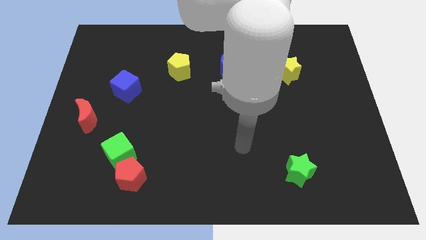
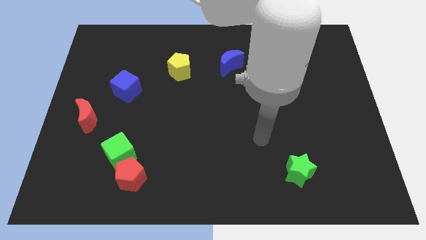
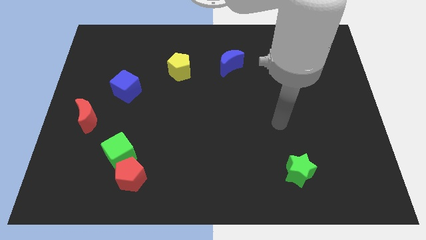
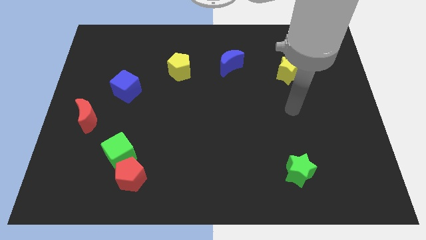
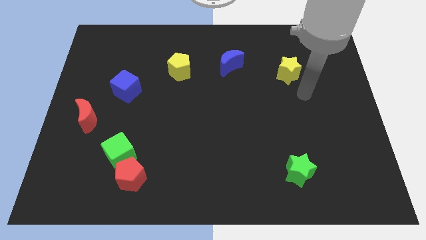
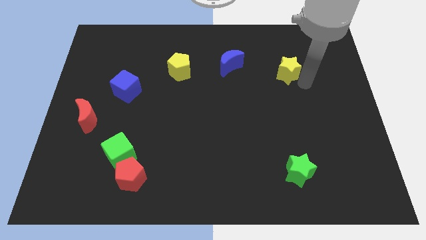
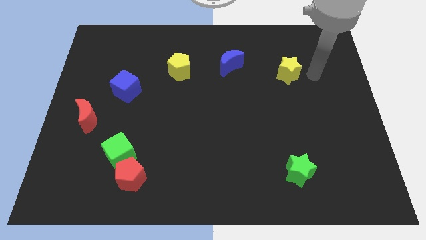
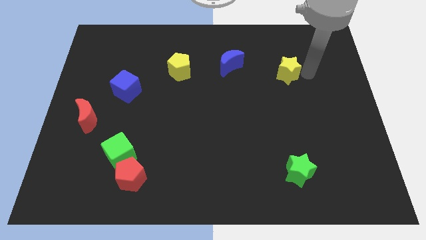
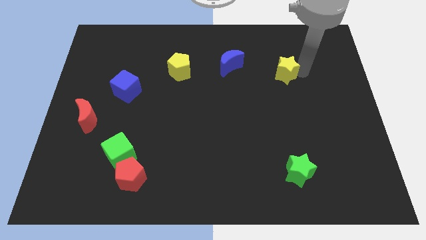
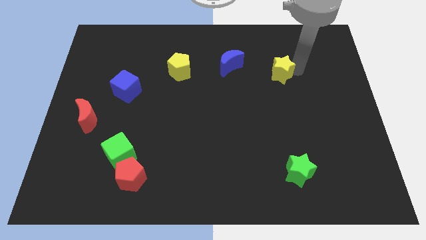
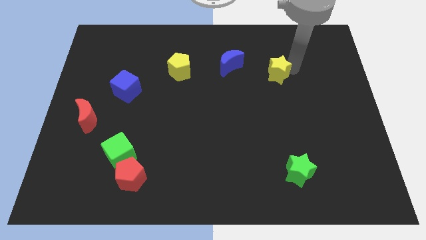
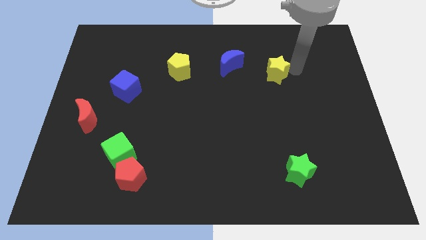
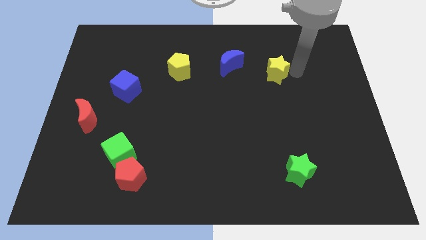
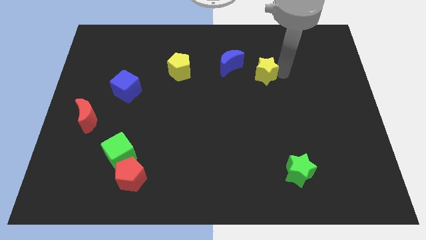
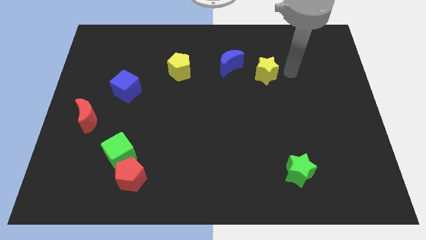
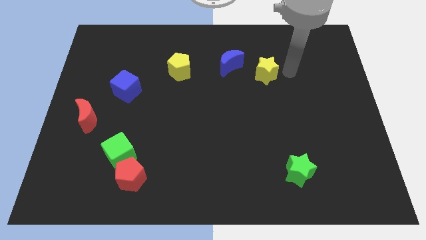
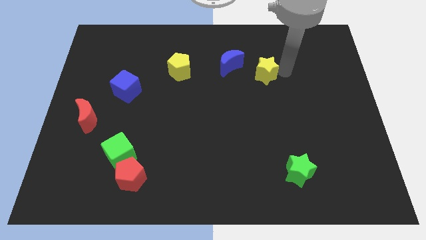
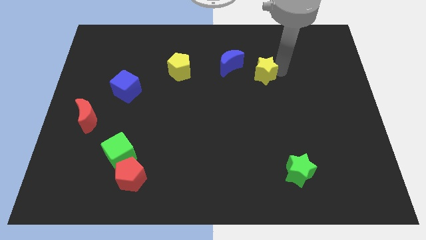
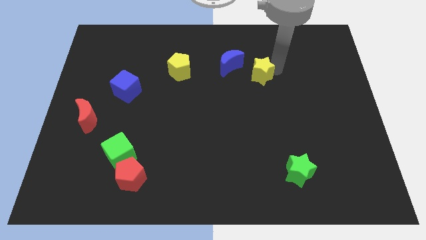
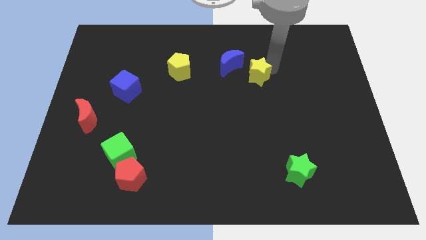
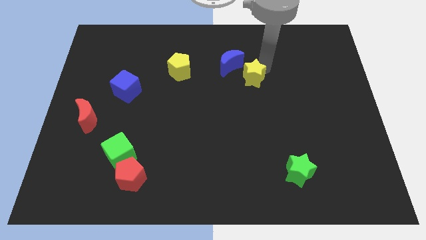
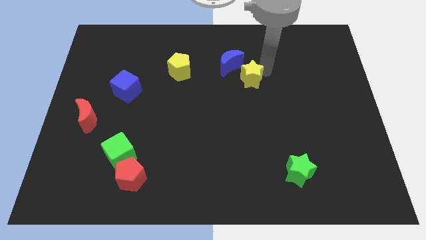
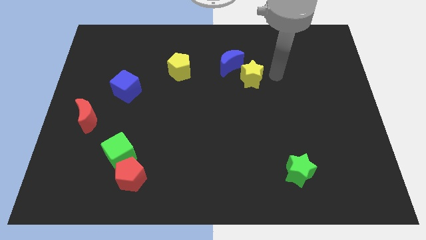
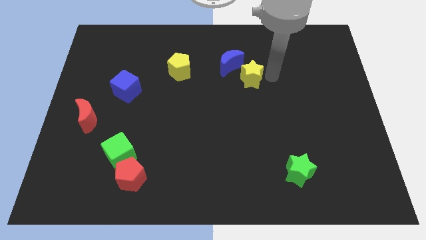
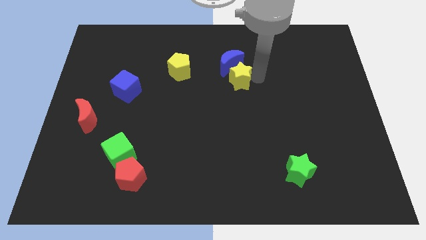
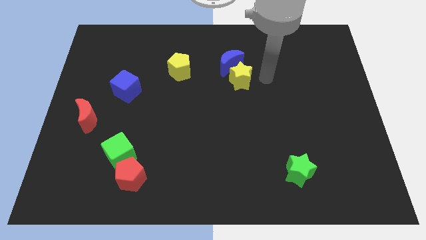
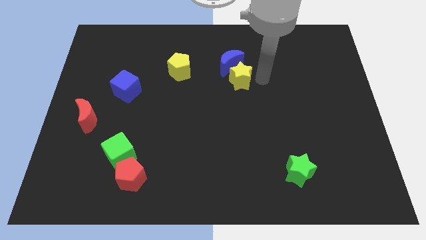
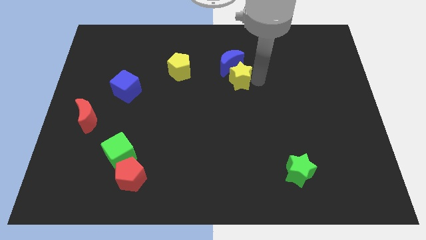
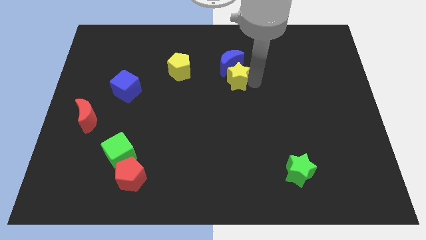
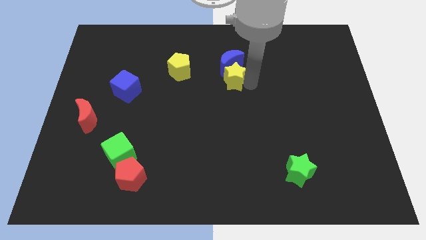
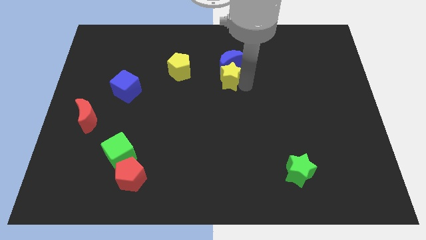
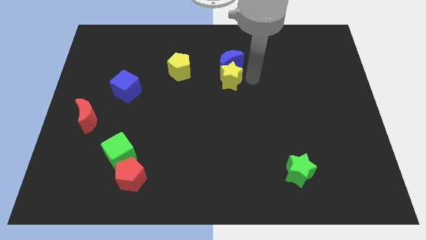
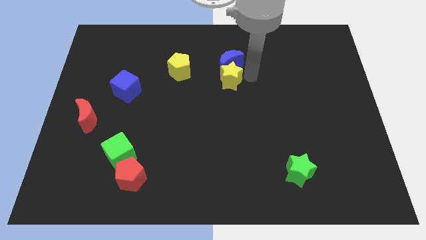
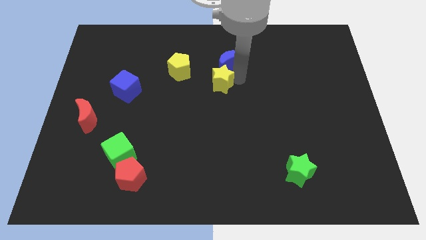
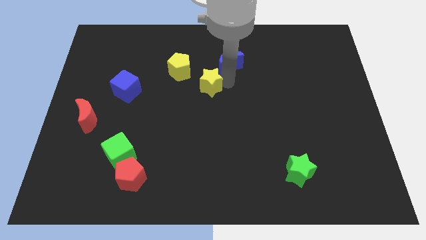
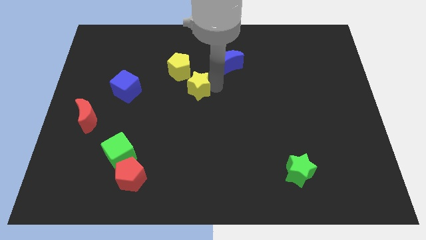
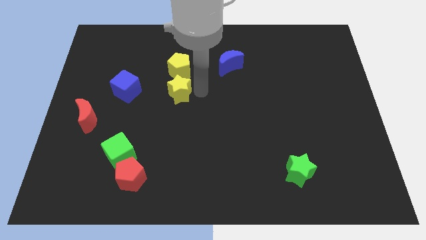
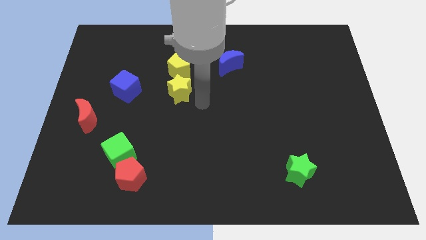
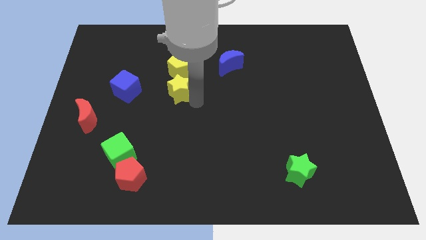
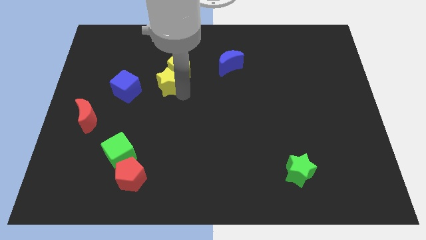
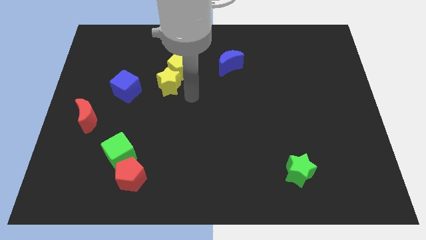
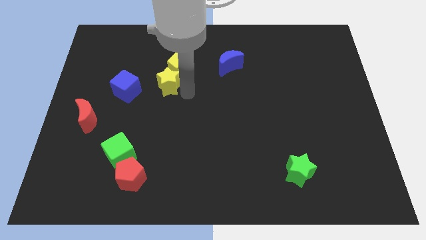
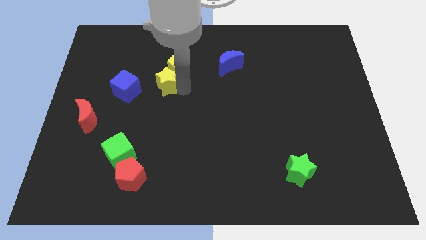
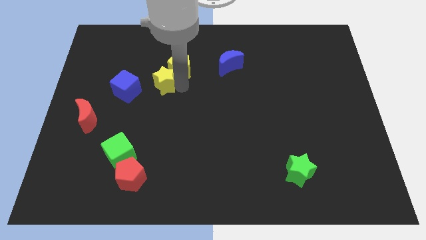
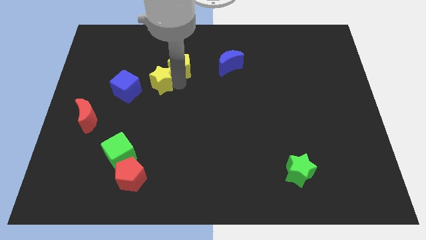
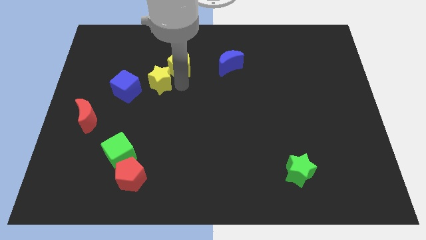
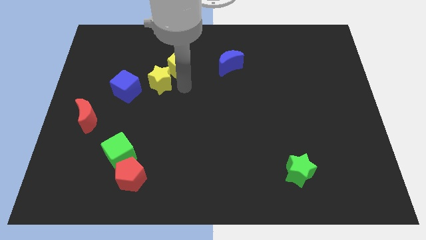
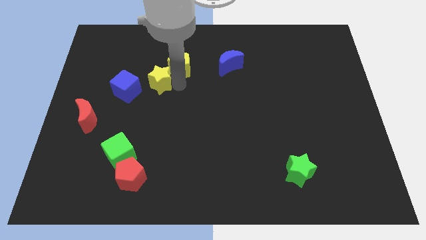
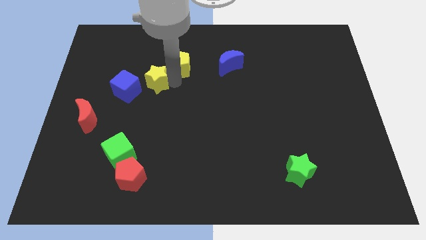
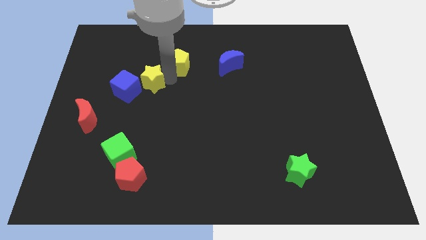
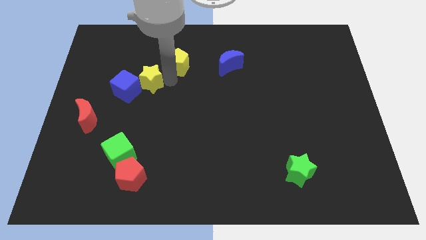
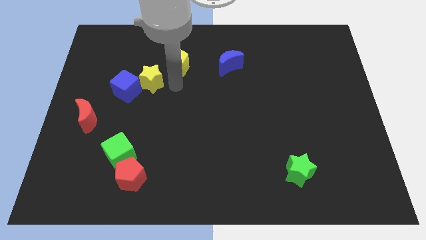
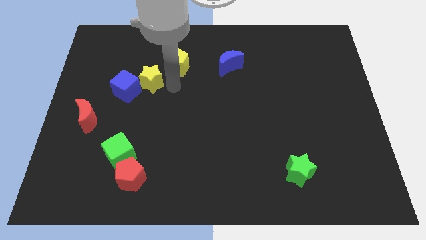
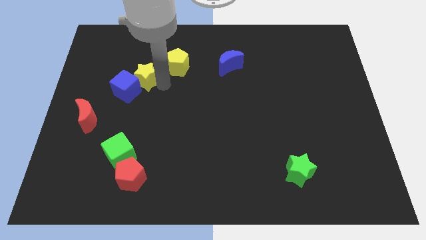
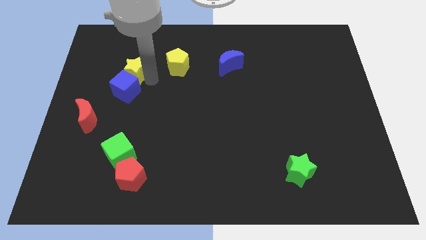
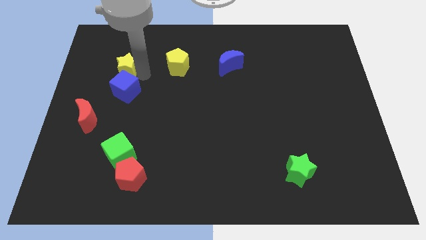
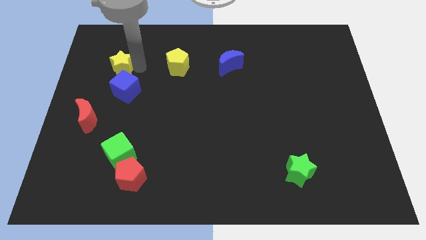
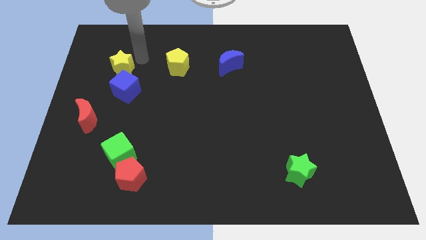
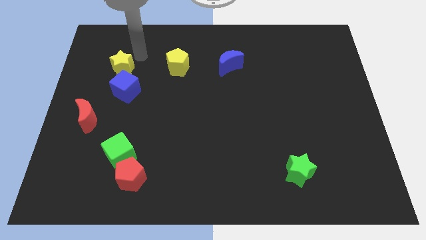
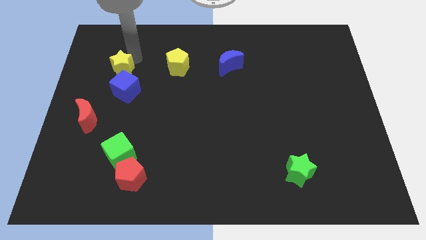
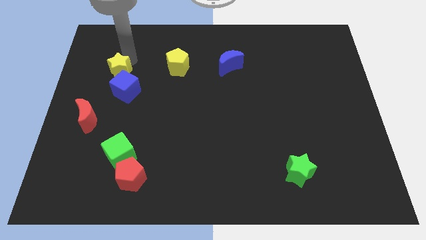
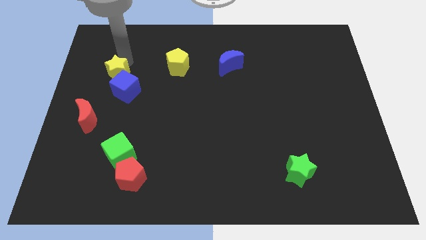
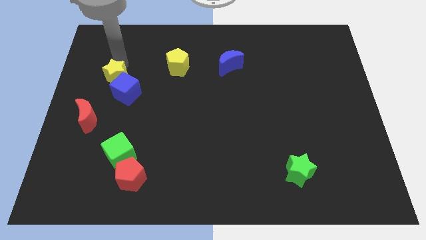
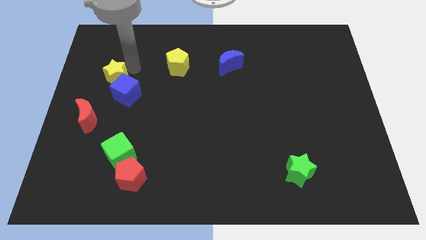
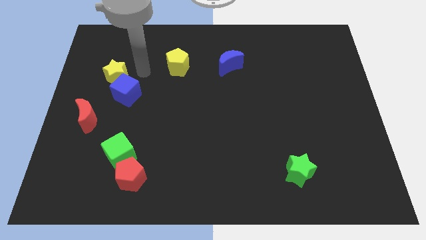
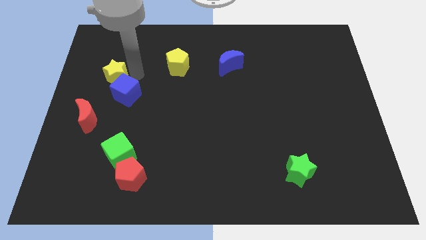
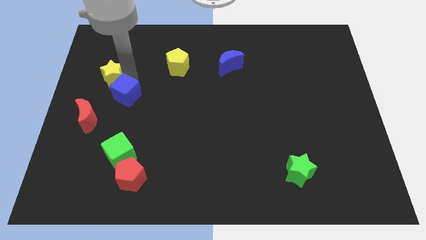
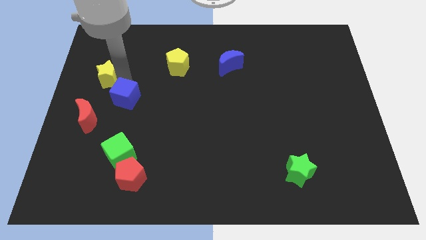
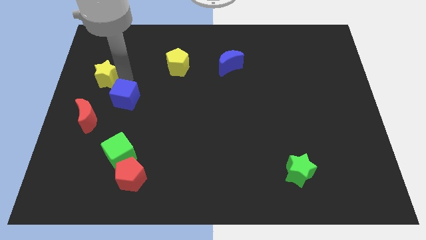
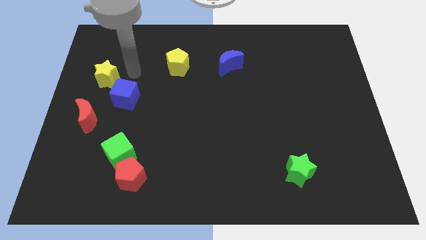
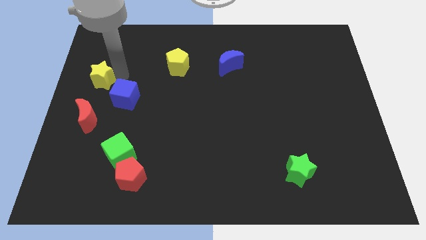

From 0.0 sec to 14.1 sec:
slide the yellow star to the left side
